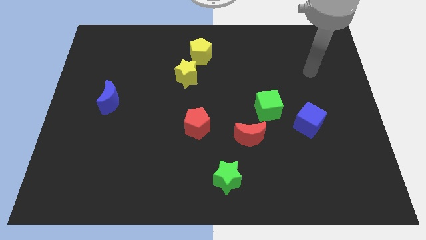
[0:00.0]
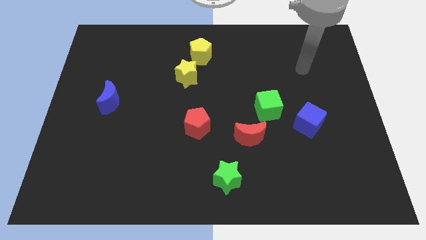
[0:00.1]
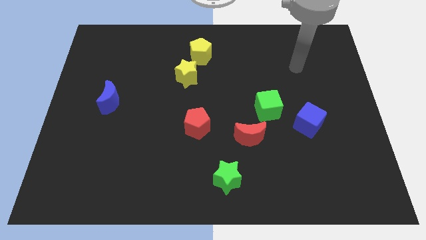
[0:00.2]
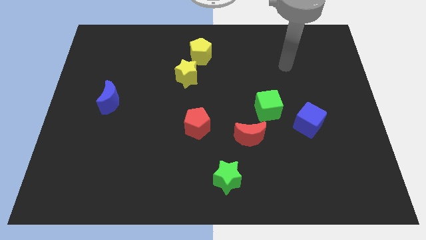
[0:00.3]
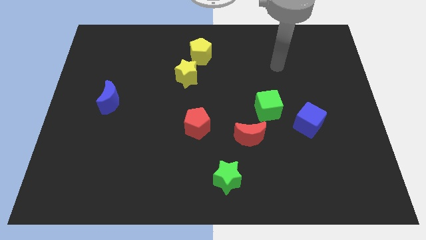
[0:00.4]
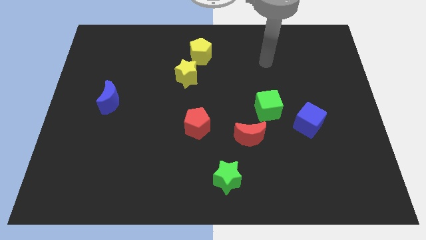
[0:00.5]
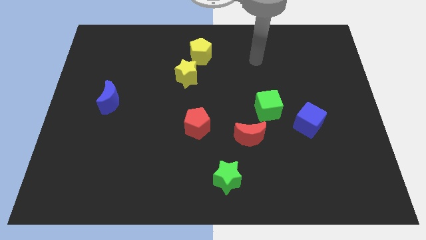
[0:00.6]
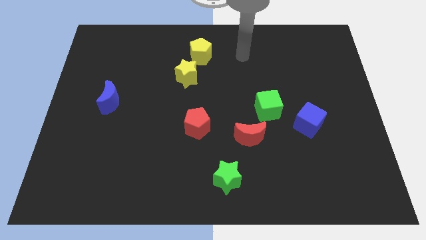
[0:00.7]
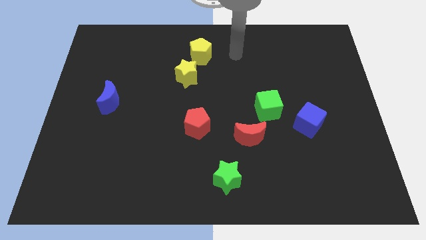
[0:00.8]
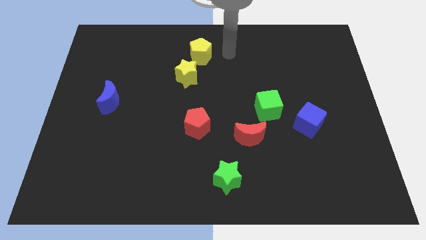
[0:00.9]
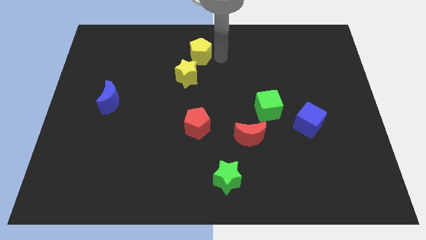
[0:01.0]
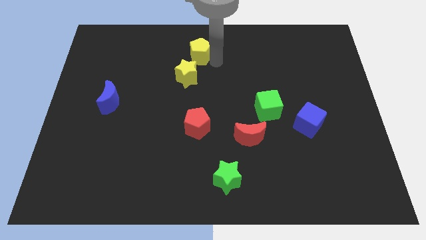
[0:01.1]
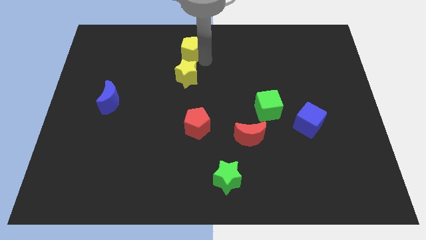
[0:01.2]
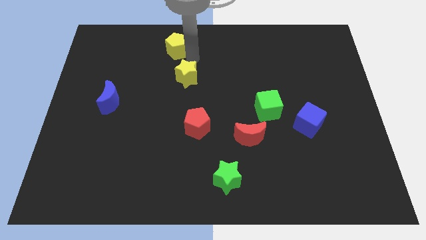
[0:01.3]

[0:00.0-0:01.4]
pull the yellow star apart from the yellow pentagon

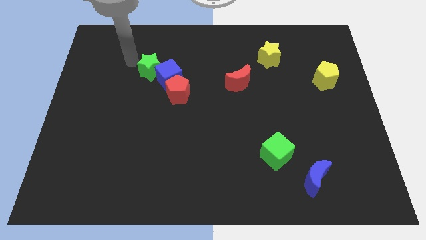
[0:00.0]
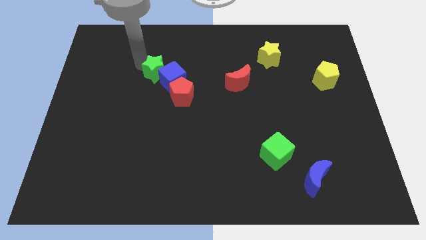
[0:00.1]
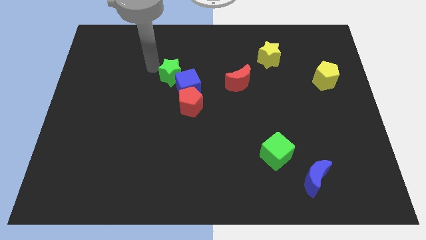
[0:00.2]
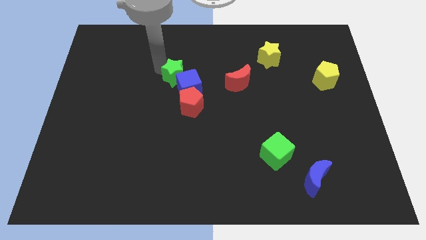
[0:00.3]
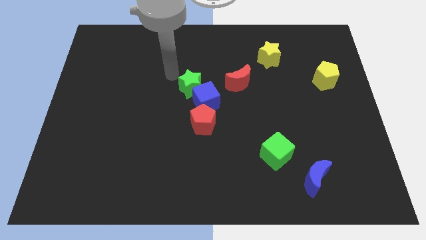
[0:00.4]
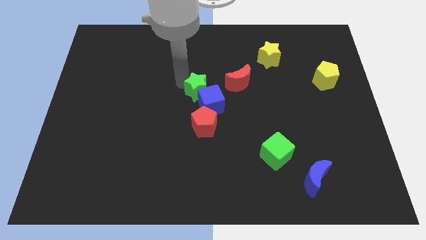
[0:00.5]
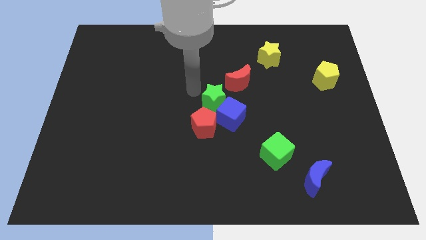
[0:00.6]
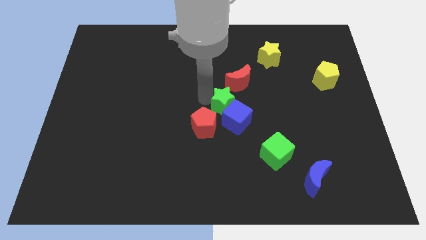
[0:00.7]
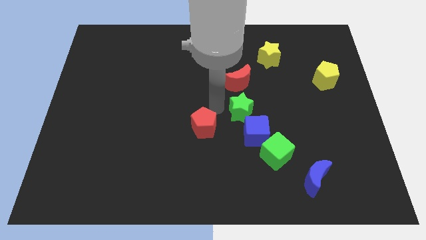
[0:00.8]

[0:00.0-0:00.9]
move the red pentagon away from the blue cube

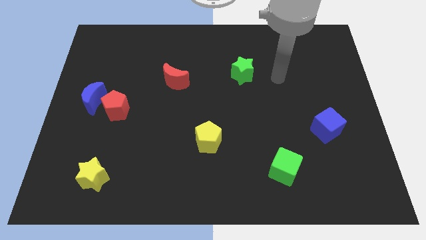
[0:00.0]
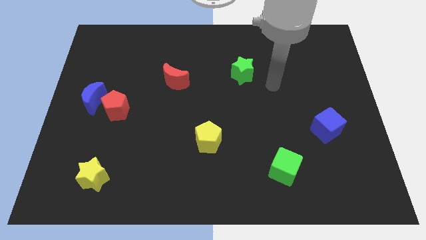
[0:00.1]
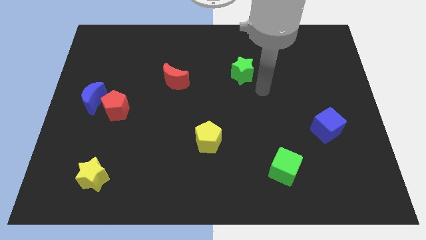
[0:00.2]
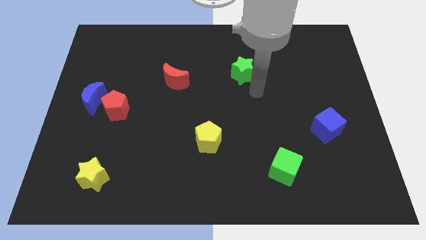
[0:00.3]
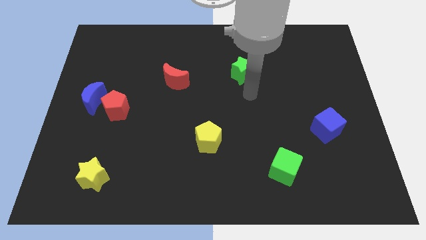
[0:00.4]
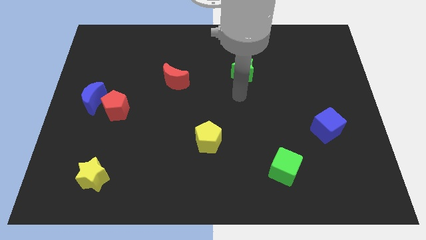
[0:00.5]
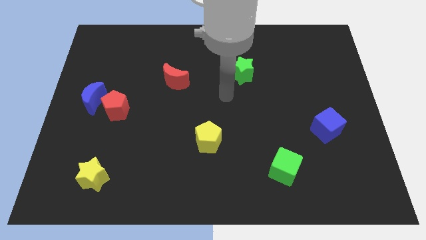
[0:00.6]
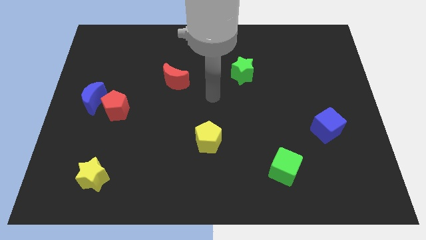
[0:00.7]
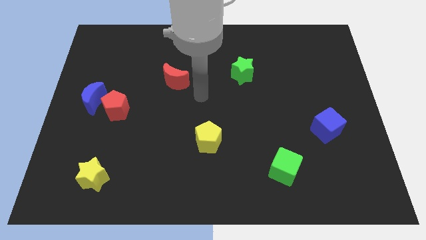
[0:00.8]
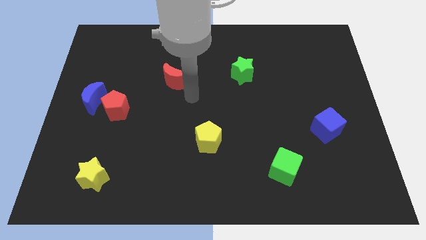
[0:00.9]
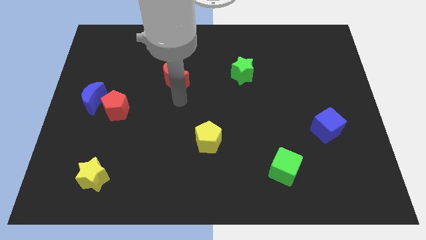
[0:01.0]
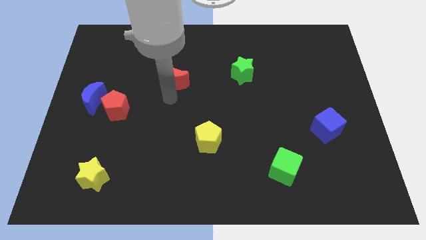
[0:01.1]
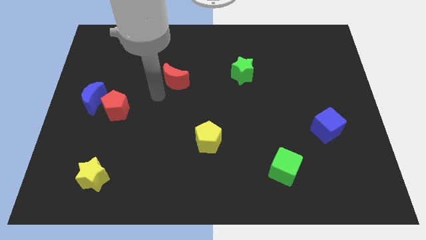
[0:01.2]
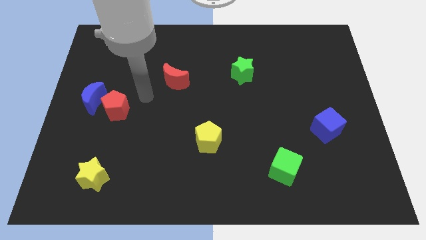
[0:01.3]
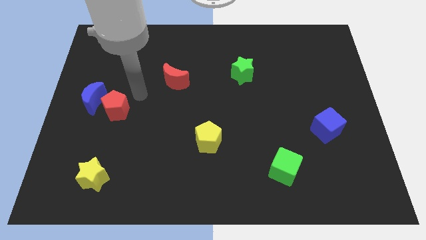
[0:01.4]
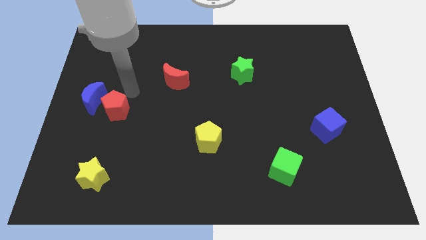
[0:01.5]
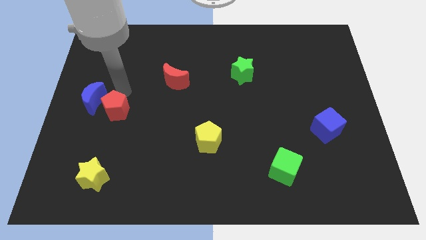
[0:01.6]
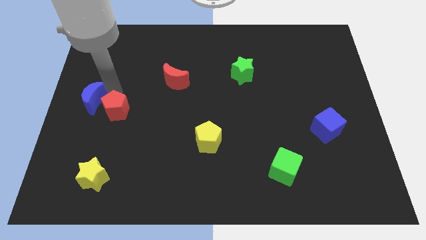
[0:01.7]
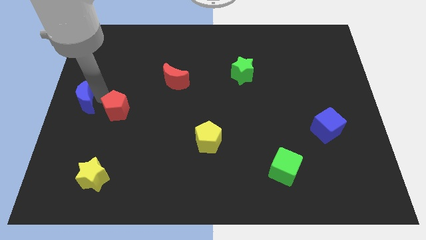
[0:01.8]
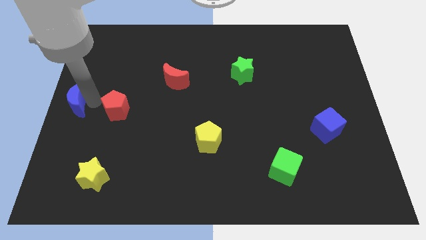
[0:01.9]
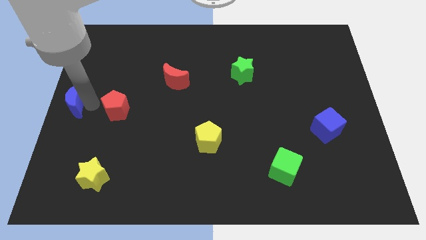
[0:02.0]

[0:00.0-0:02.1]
move the red pentagon away from the blue moon

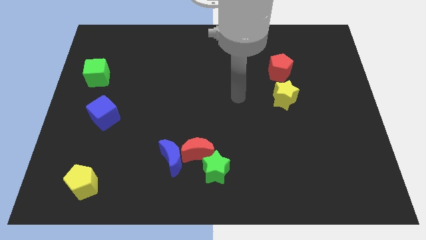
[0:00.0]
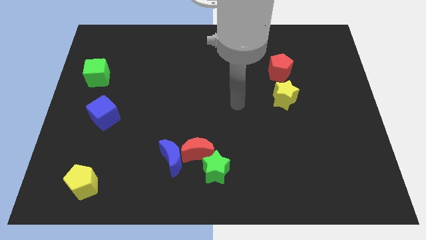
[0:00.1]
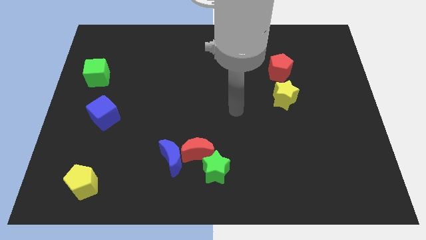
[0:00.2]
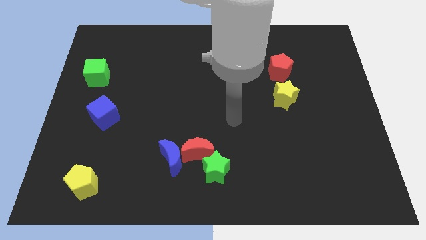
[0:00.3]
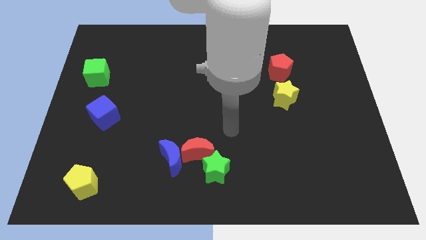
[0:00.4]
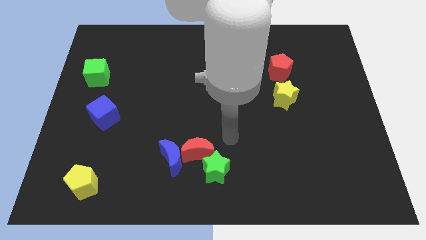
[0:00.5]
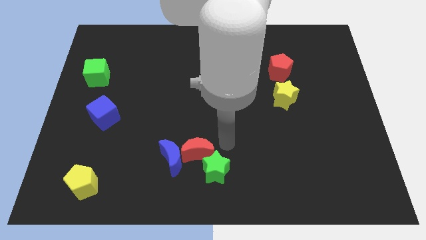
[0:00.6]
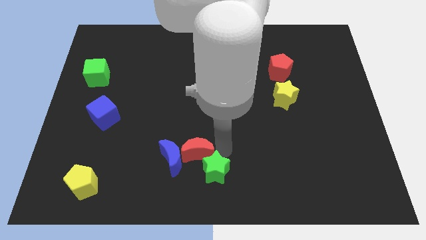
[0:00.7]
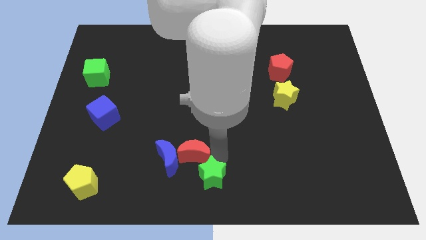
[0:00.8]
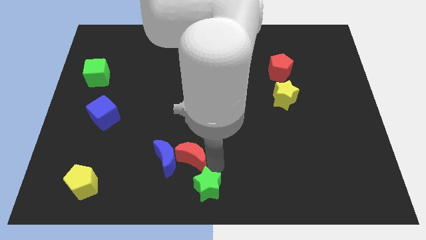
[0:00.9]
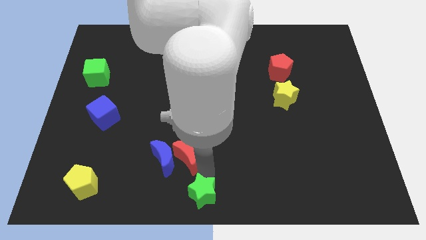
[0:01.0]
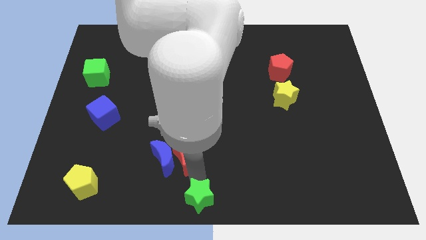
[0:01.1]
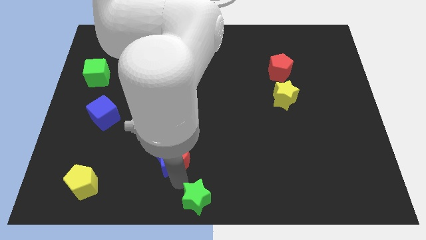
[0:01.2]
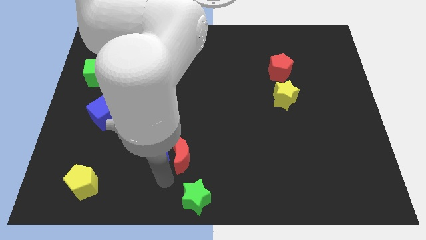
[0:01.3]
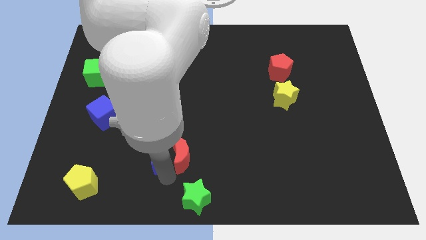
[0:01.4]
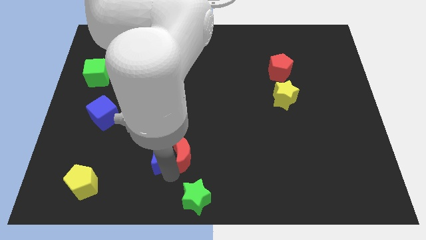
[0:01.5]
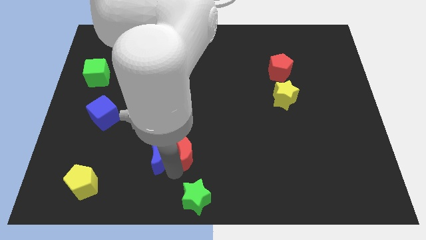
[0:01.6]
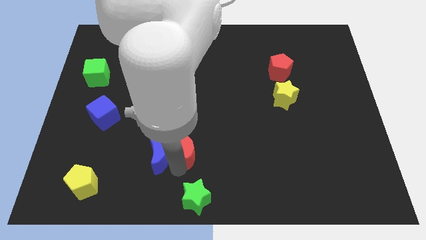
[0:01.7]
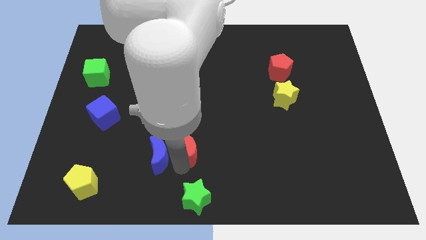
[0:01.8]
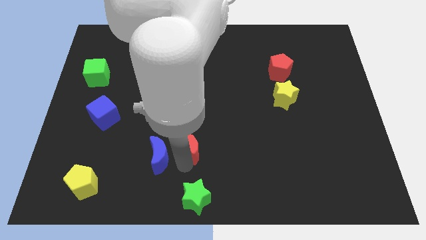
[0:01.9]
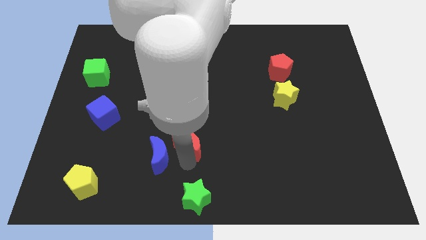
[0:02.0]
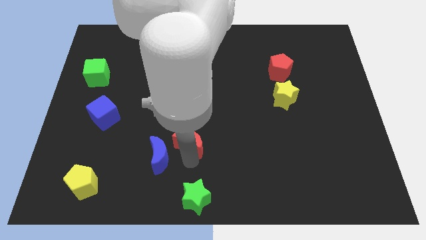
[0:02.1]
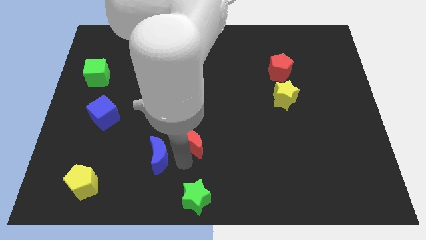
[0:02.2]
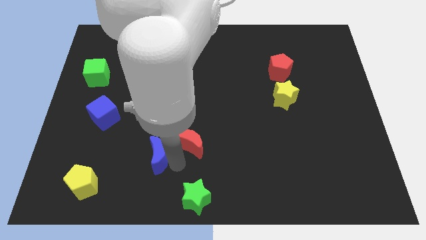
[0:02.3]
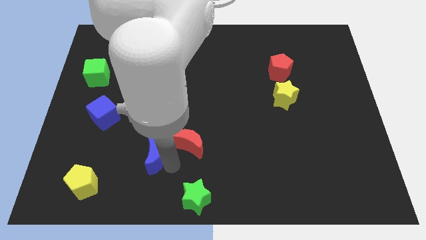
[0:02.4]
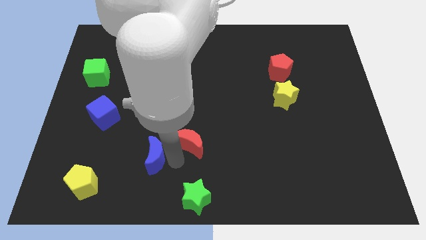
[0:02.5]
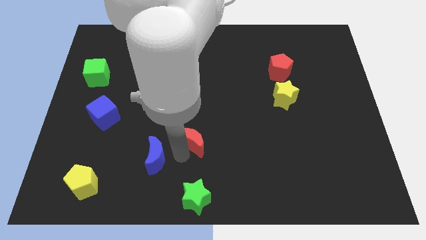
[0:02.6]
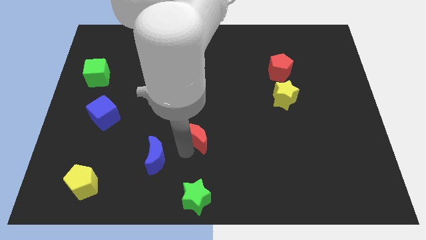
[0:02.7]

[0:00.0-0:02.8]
separate the red moon from the blue moon and green star

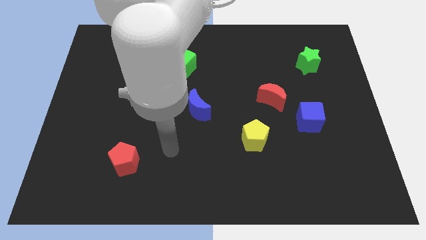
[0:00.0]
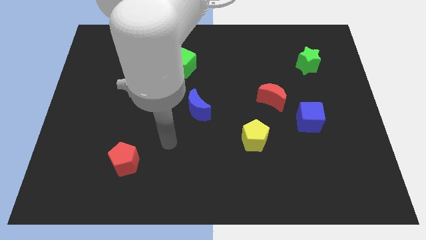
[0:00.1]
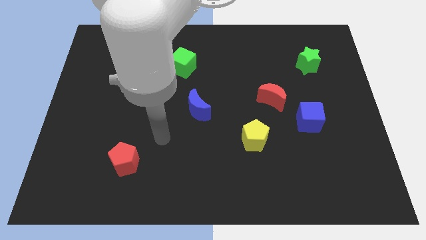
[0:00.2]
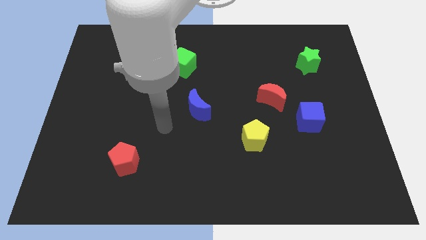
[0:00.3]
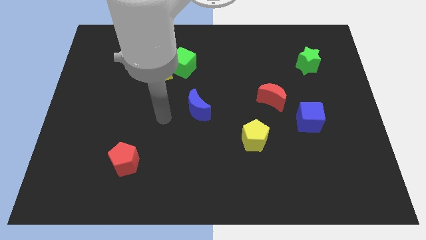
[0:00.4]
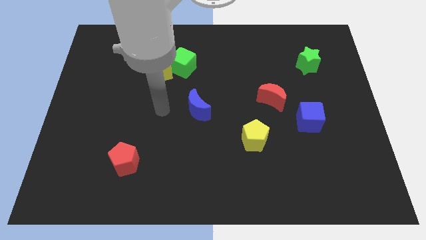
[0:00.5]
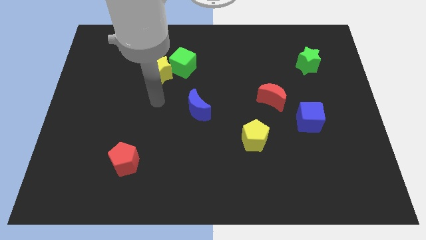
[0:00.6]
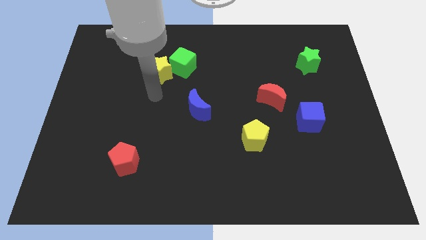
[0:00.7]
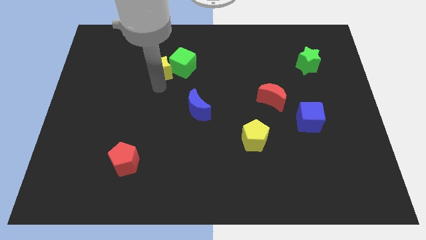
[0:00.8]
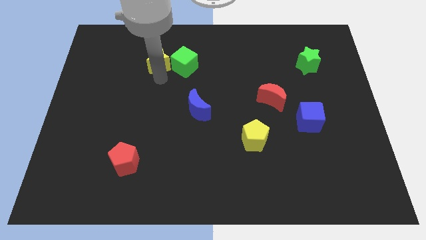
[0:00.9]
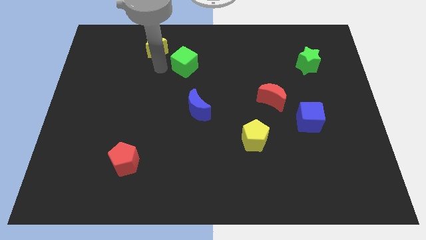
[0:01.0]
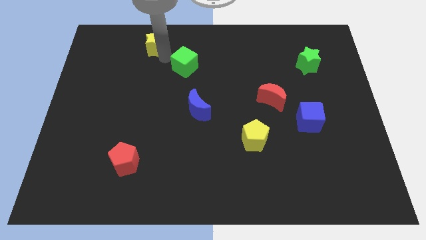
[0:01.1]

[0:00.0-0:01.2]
pull the green cube apart from the yellow star

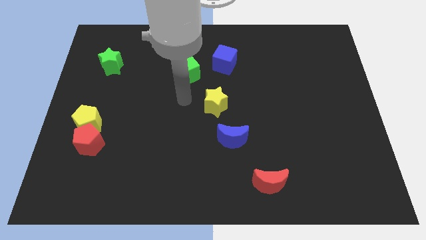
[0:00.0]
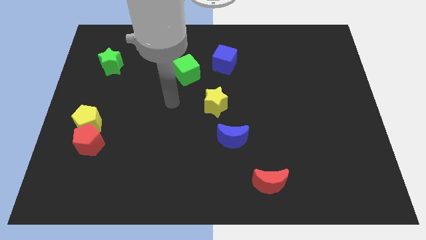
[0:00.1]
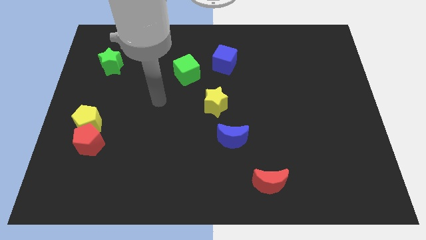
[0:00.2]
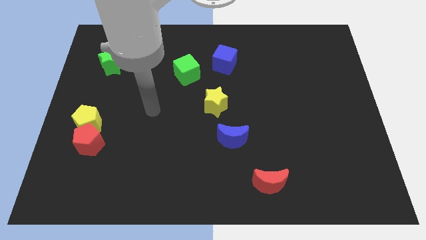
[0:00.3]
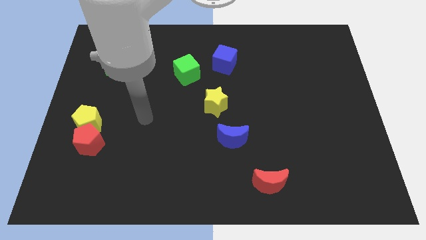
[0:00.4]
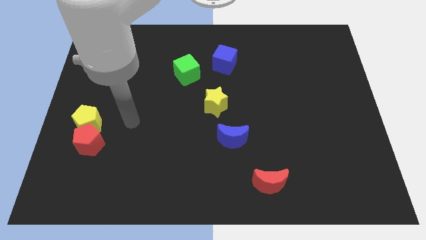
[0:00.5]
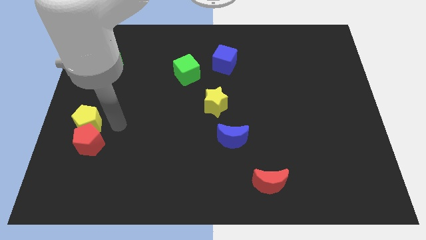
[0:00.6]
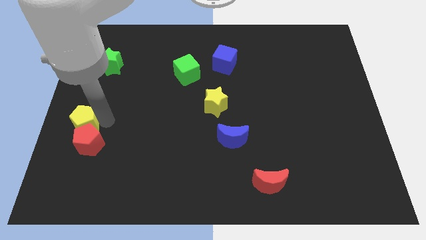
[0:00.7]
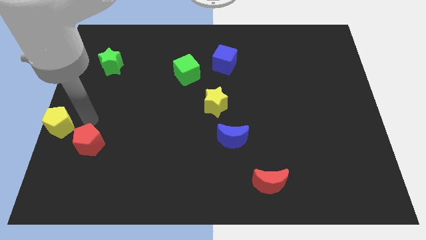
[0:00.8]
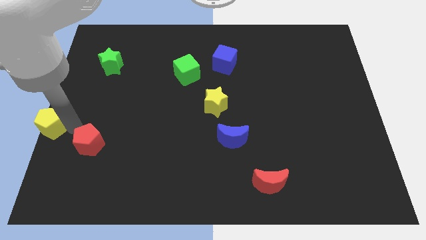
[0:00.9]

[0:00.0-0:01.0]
separate the red pentagon from the yellow pentagon

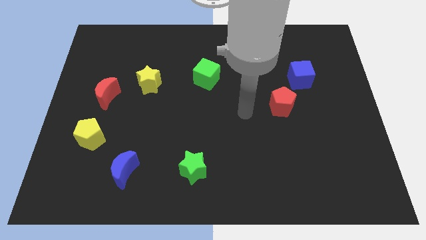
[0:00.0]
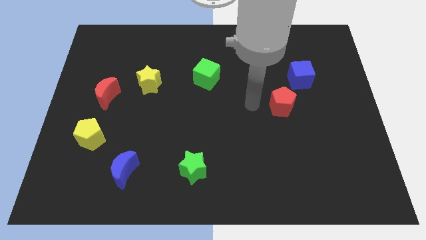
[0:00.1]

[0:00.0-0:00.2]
separate the red pentagon from the blue cube
